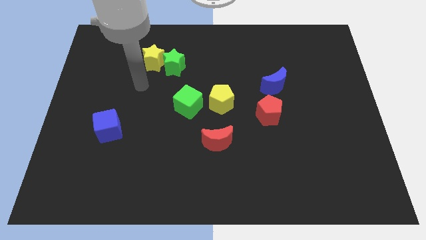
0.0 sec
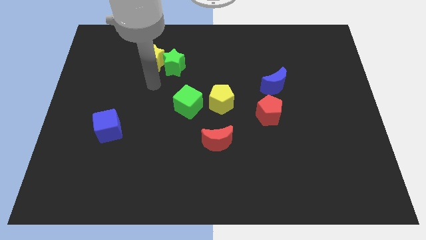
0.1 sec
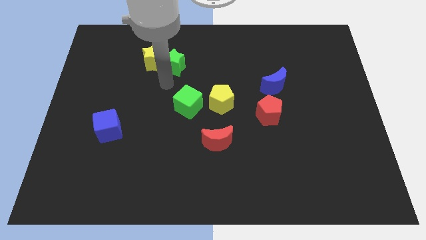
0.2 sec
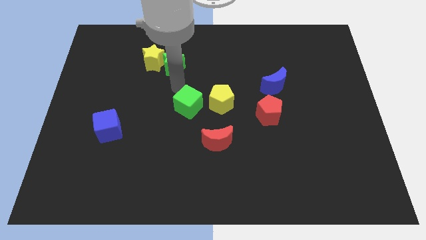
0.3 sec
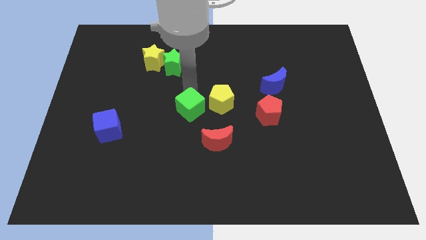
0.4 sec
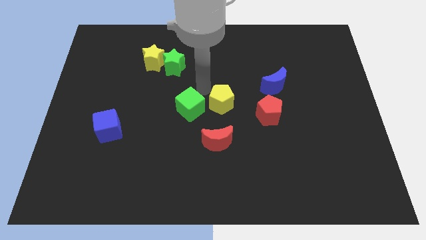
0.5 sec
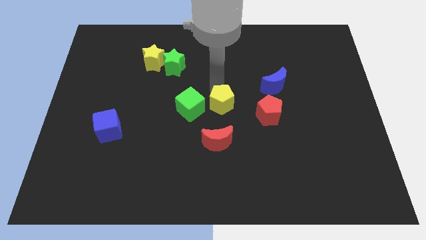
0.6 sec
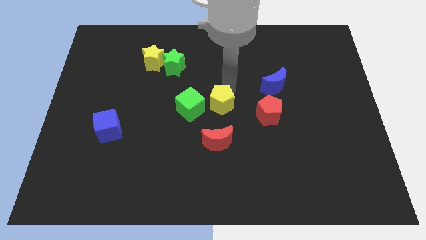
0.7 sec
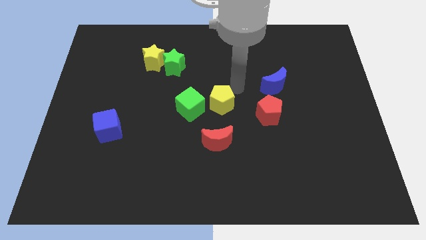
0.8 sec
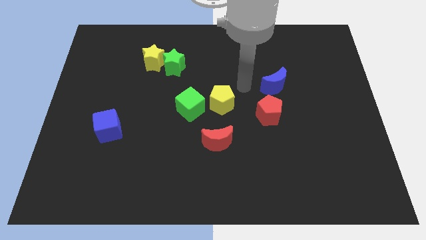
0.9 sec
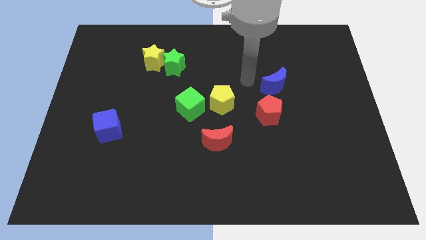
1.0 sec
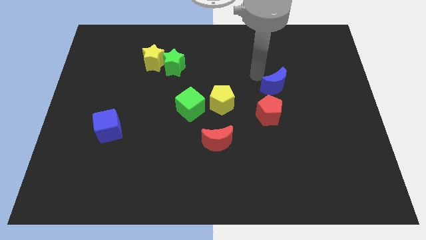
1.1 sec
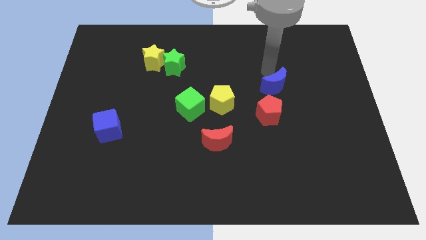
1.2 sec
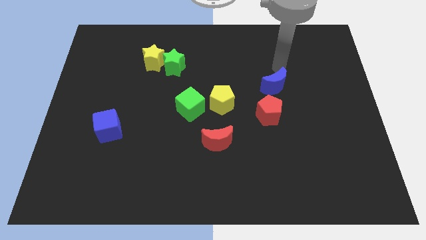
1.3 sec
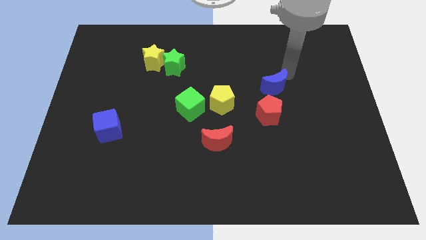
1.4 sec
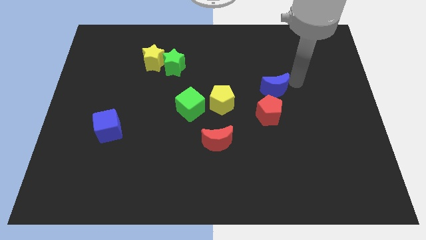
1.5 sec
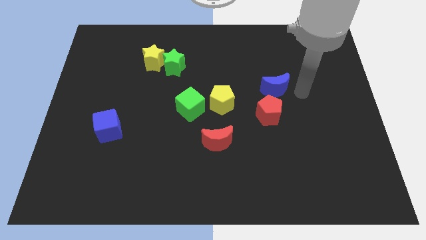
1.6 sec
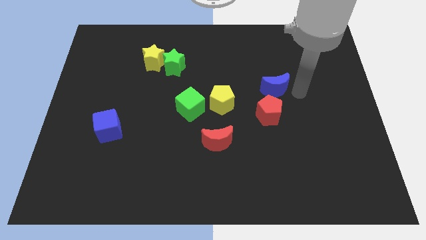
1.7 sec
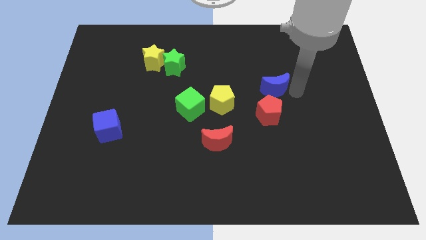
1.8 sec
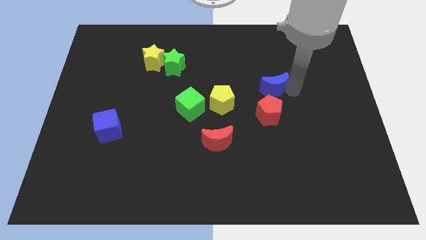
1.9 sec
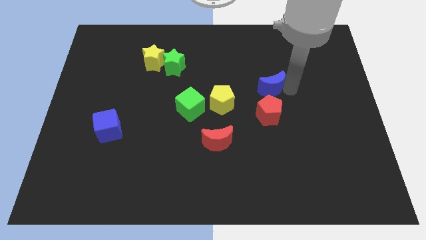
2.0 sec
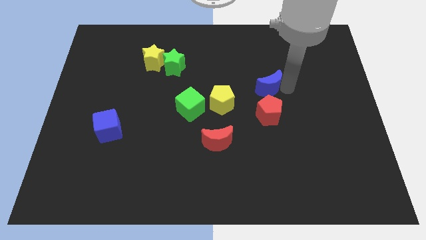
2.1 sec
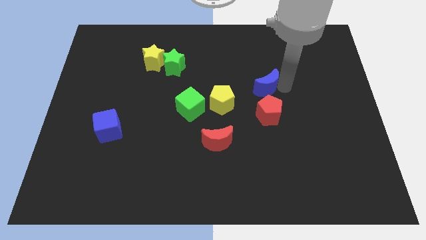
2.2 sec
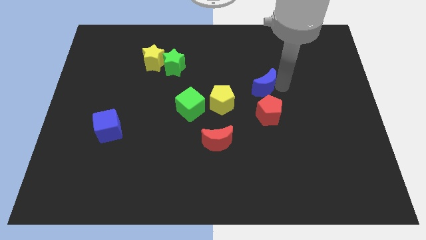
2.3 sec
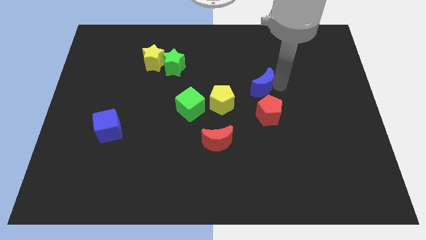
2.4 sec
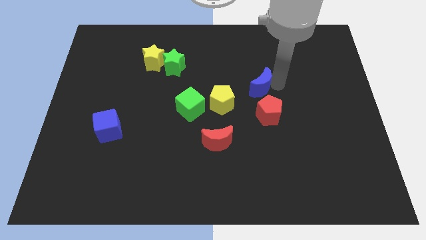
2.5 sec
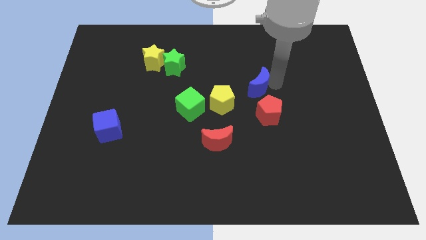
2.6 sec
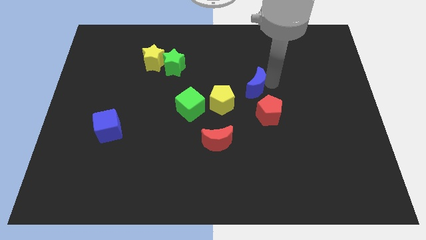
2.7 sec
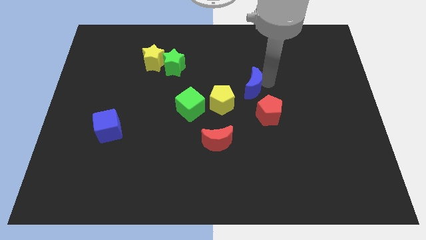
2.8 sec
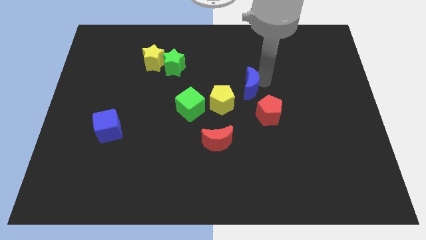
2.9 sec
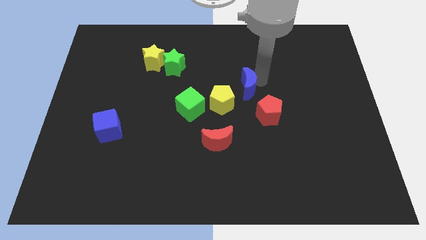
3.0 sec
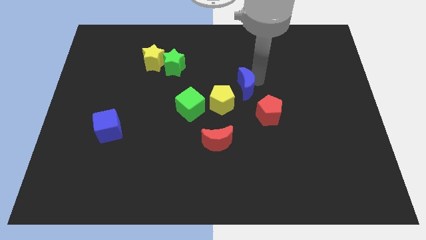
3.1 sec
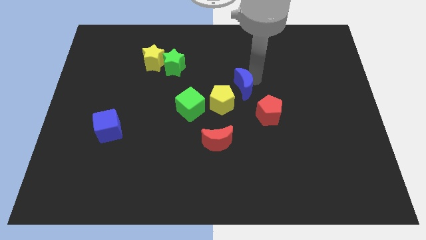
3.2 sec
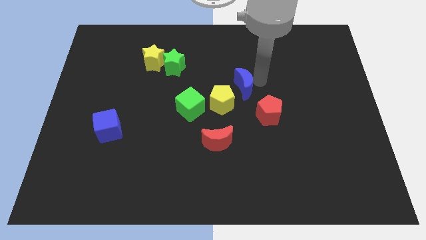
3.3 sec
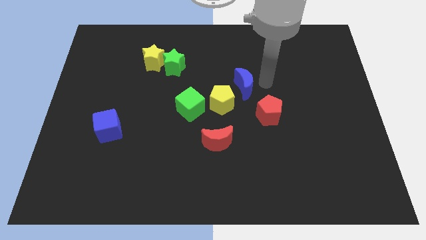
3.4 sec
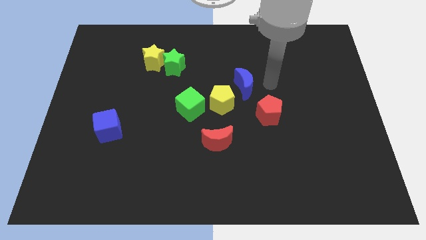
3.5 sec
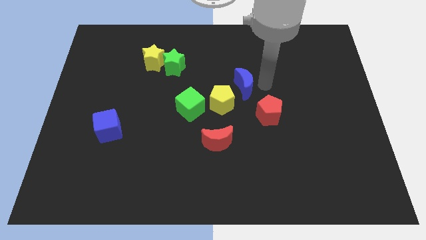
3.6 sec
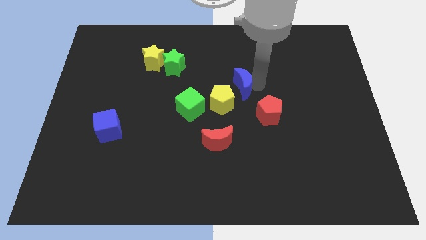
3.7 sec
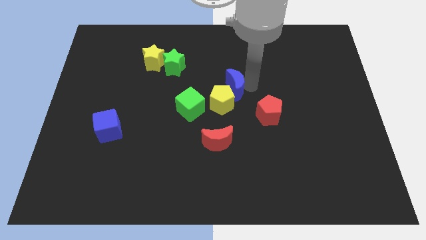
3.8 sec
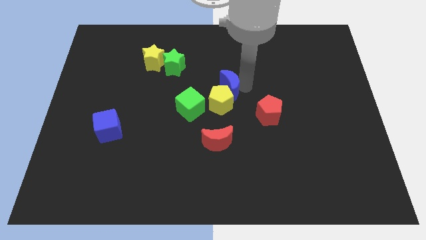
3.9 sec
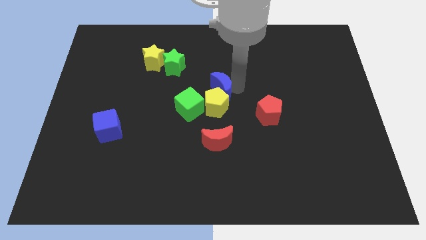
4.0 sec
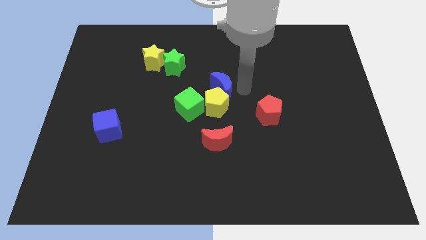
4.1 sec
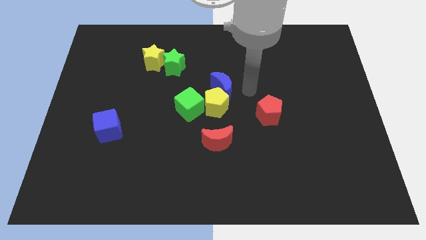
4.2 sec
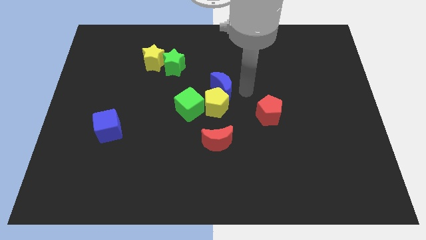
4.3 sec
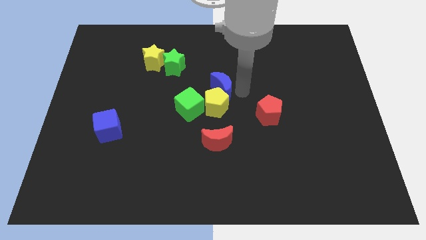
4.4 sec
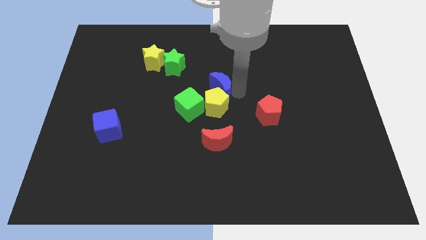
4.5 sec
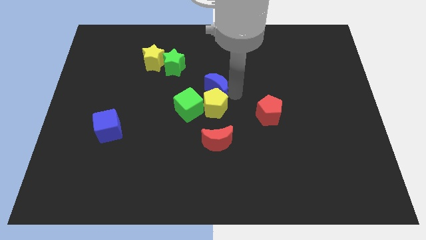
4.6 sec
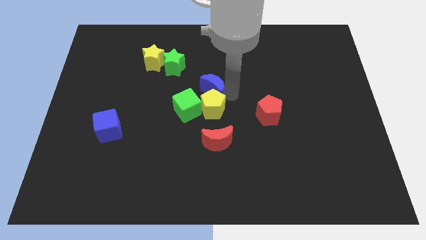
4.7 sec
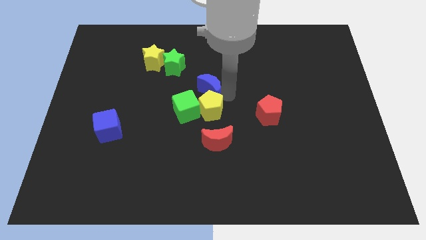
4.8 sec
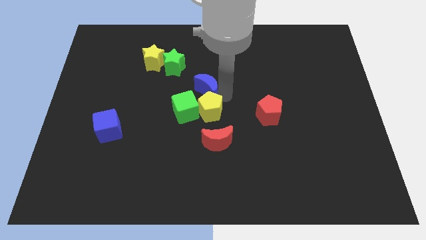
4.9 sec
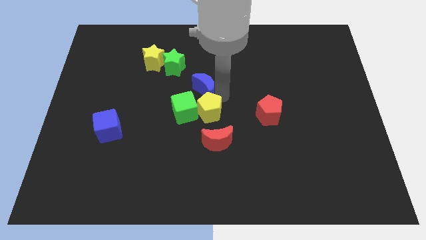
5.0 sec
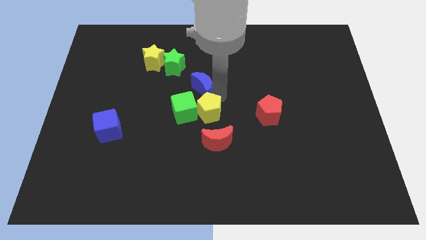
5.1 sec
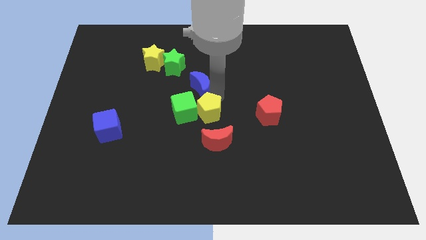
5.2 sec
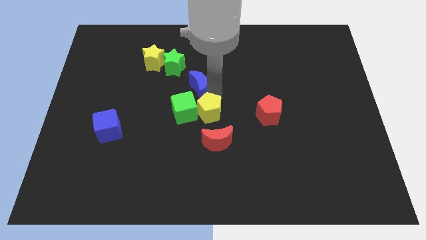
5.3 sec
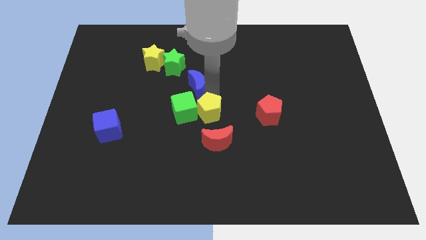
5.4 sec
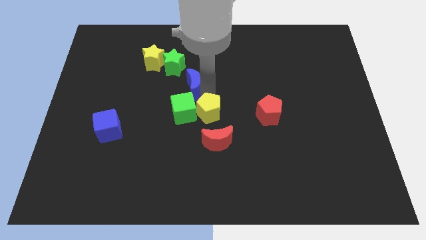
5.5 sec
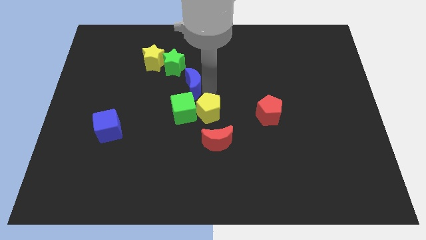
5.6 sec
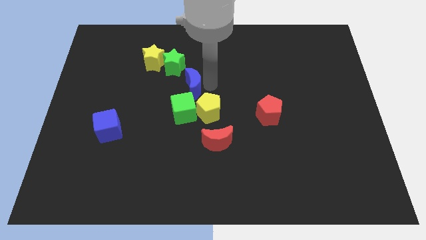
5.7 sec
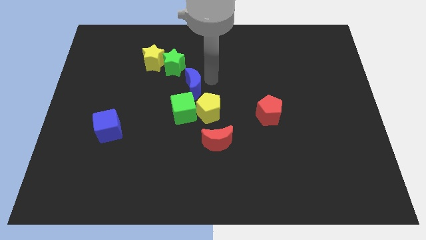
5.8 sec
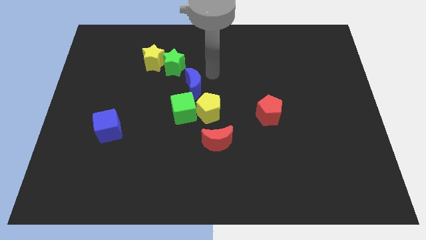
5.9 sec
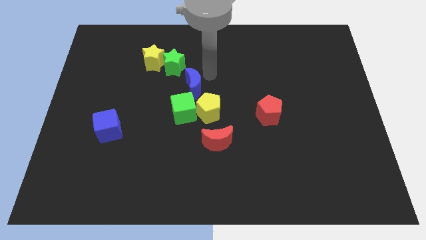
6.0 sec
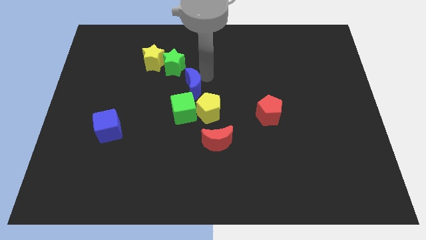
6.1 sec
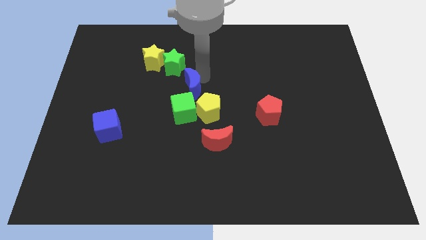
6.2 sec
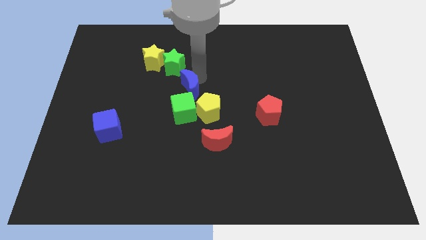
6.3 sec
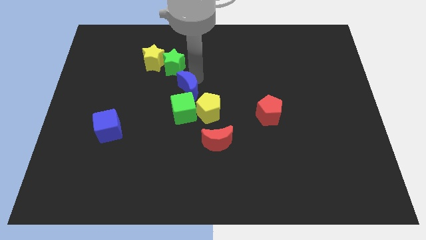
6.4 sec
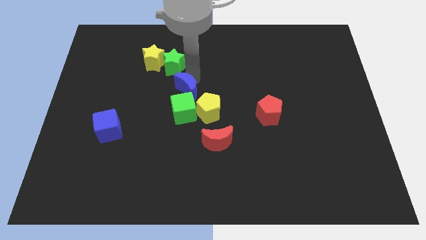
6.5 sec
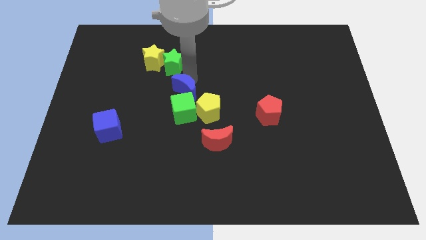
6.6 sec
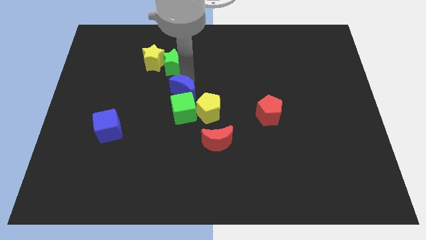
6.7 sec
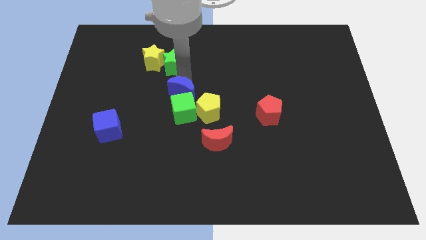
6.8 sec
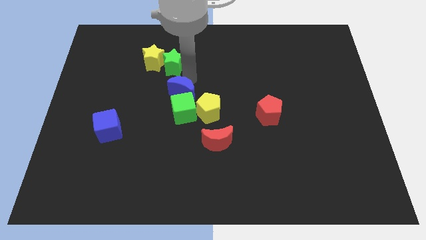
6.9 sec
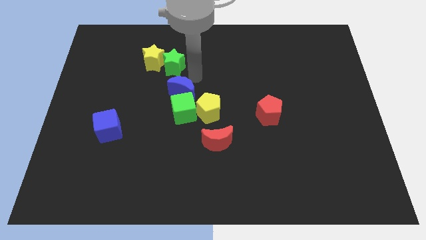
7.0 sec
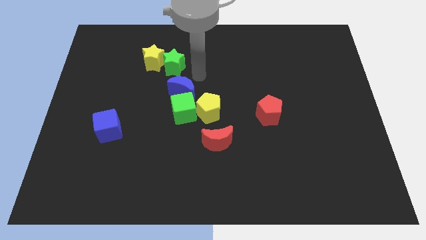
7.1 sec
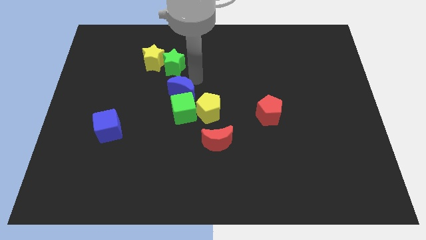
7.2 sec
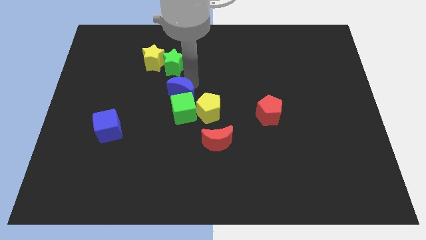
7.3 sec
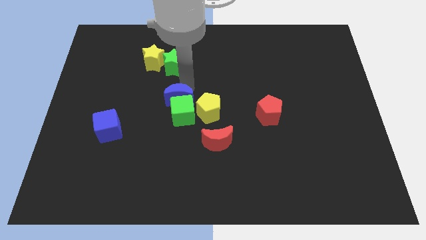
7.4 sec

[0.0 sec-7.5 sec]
put the blue moon to the left side of the yellow pentagon
